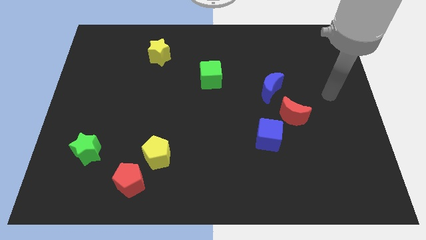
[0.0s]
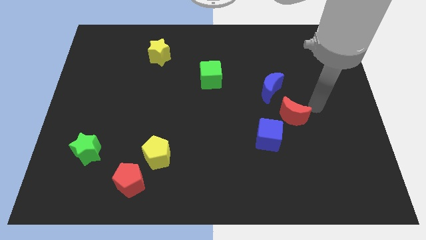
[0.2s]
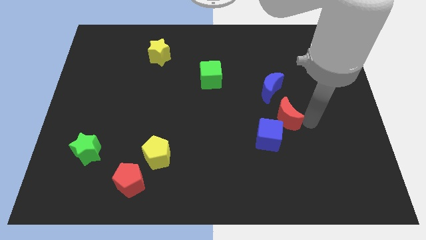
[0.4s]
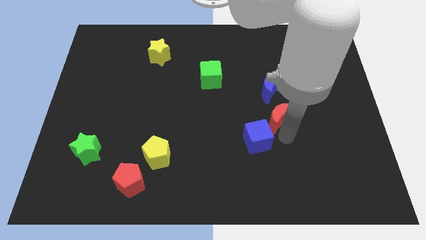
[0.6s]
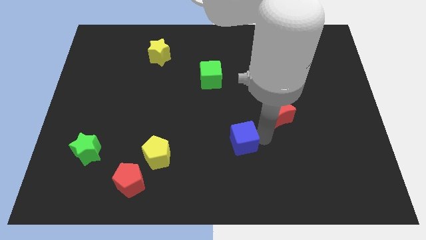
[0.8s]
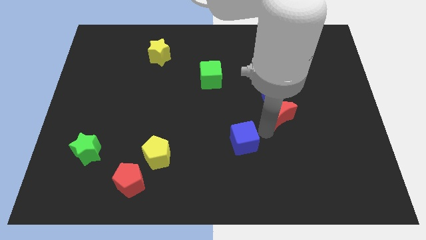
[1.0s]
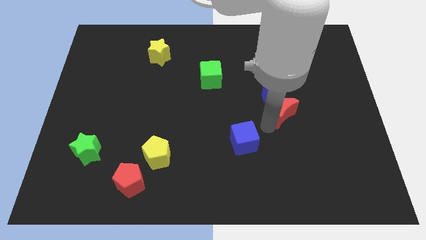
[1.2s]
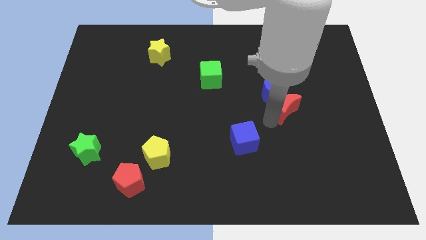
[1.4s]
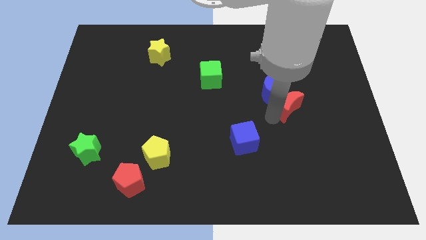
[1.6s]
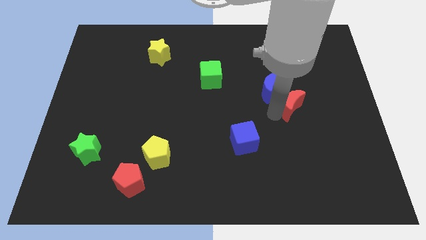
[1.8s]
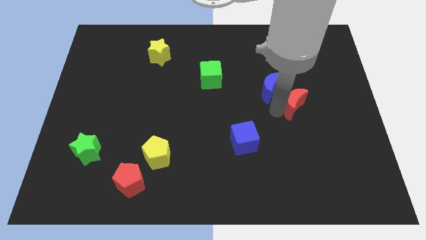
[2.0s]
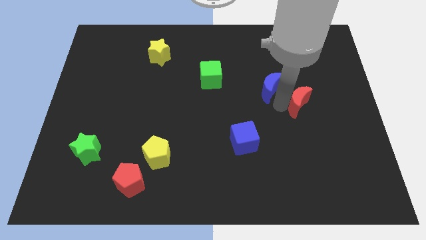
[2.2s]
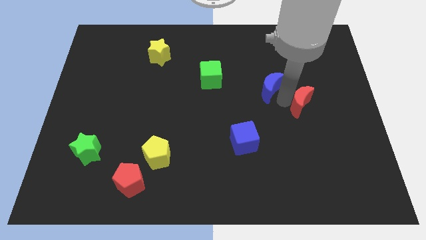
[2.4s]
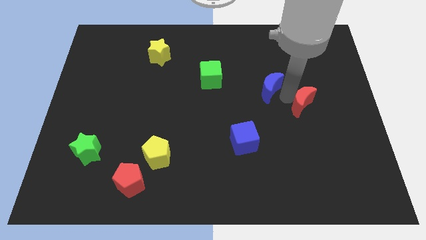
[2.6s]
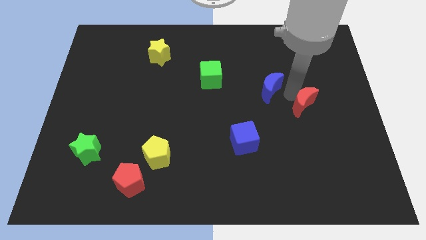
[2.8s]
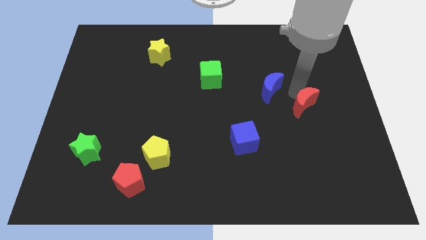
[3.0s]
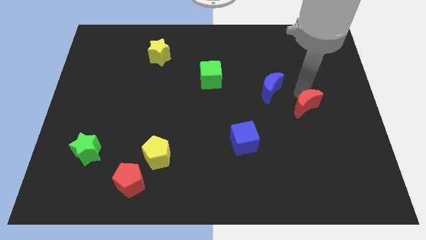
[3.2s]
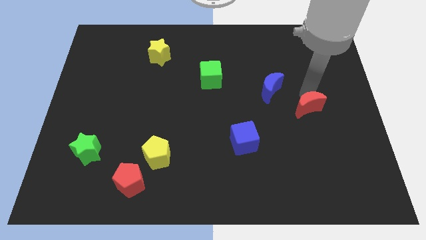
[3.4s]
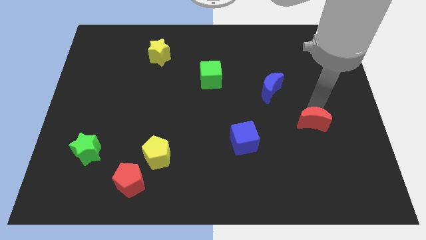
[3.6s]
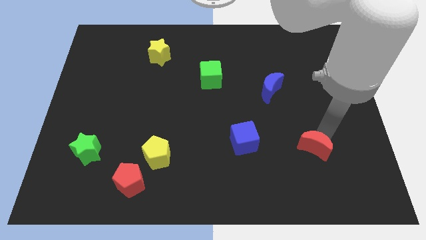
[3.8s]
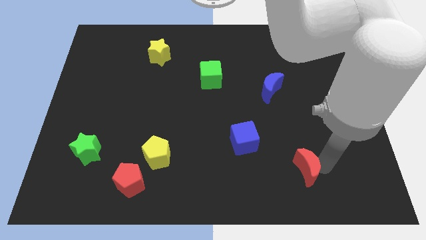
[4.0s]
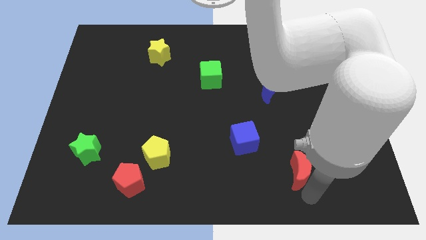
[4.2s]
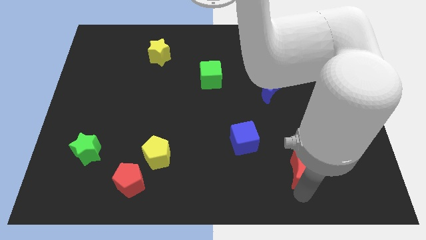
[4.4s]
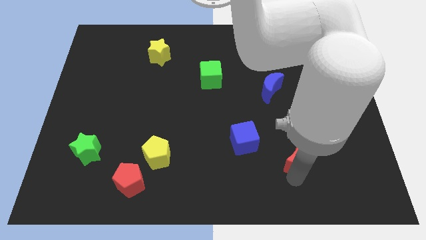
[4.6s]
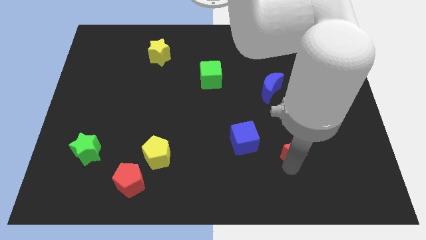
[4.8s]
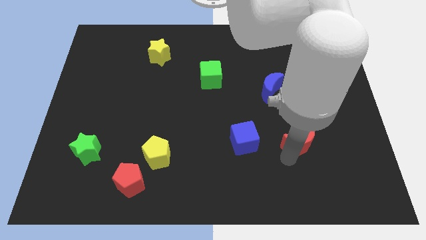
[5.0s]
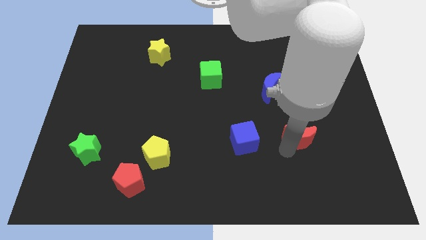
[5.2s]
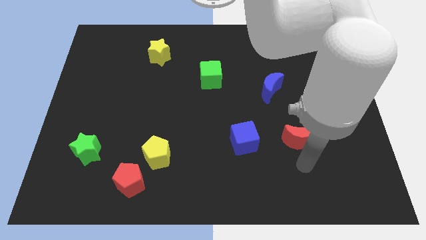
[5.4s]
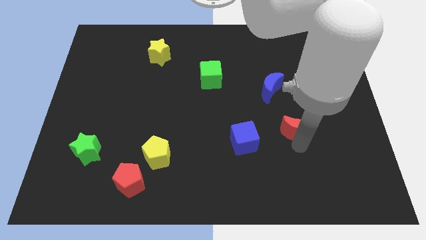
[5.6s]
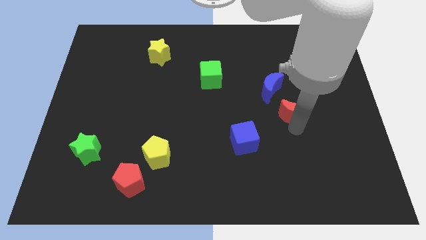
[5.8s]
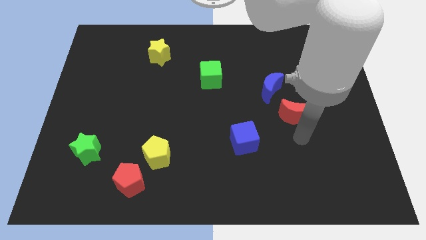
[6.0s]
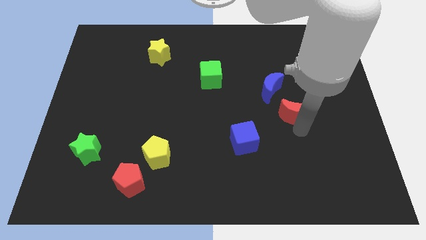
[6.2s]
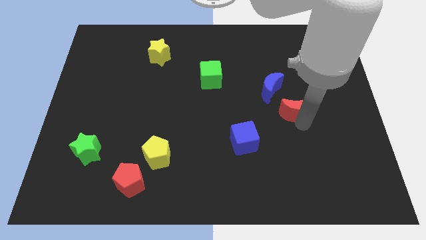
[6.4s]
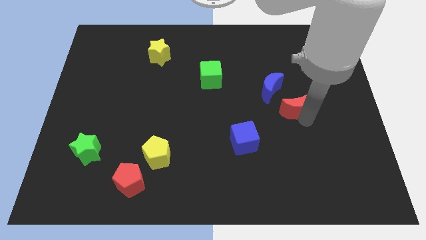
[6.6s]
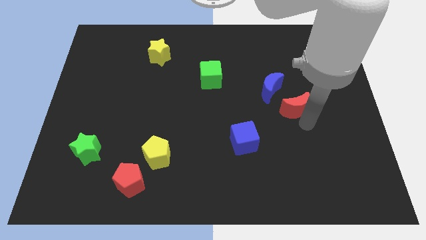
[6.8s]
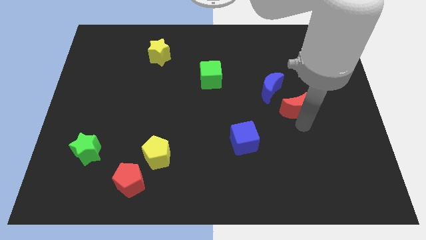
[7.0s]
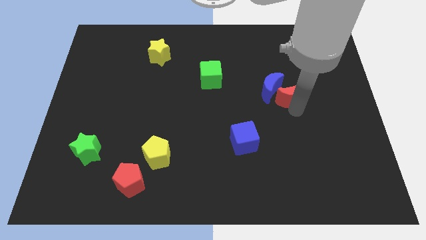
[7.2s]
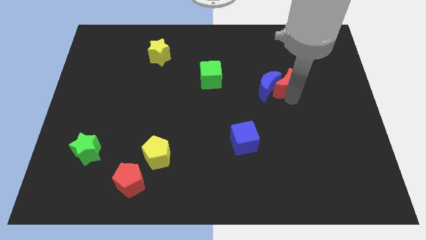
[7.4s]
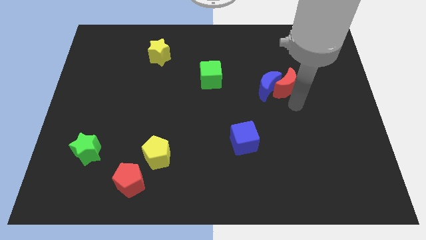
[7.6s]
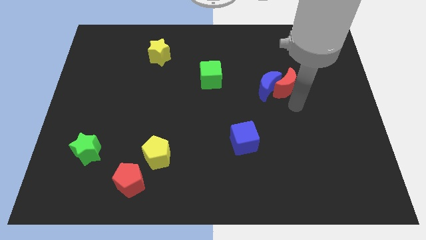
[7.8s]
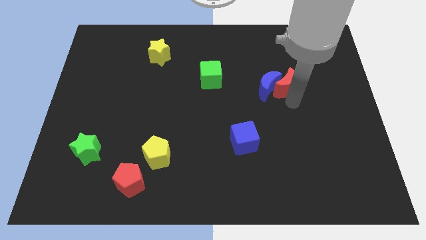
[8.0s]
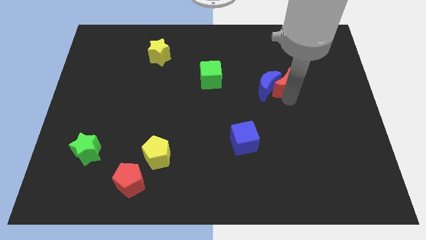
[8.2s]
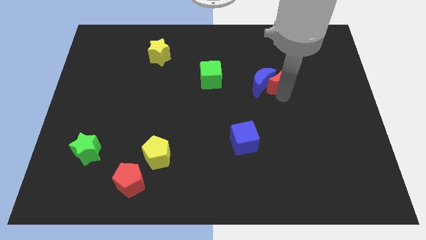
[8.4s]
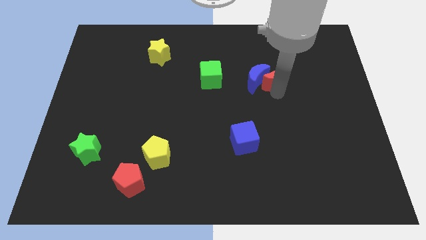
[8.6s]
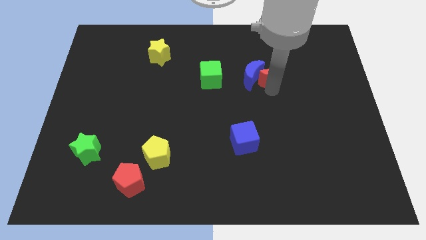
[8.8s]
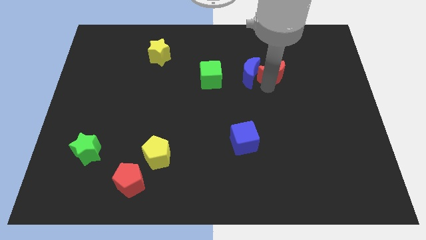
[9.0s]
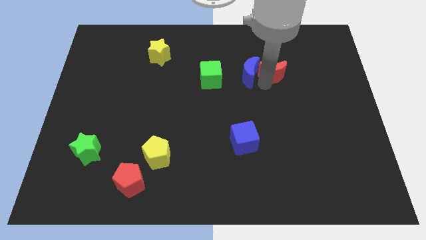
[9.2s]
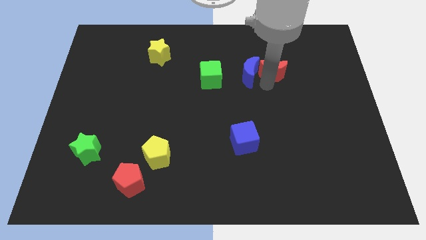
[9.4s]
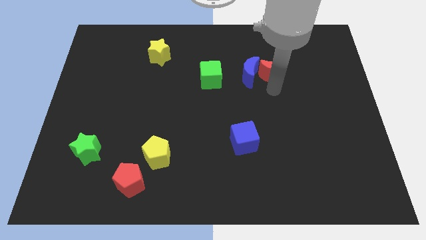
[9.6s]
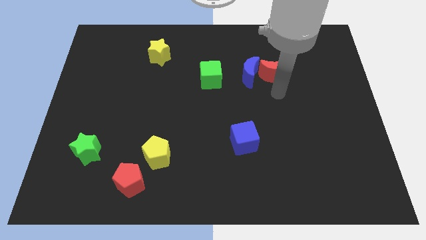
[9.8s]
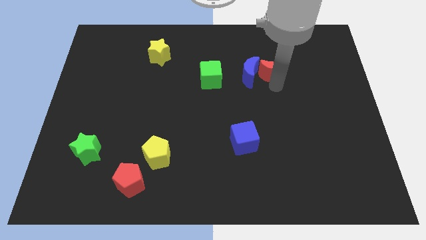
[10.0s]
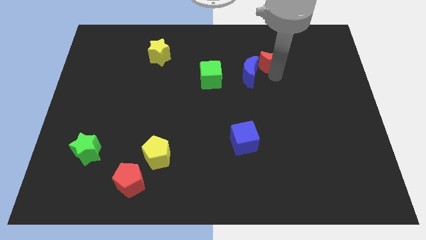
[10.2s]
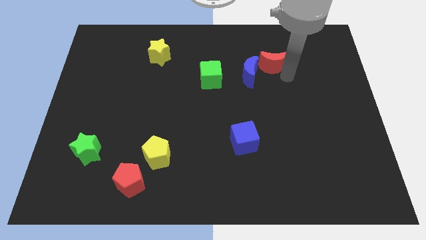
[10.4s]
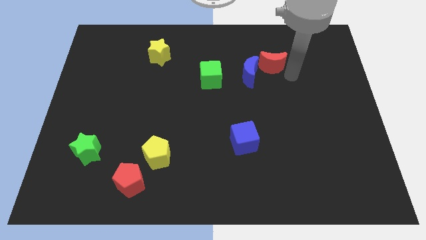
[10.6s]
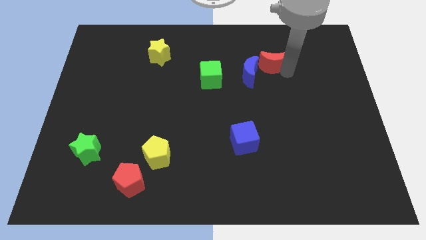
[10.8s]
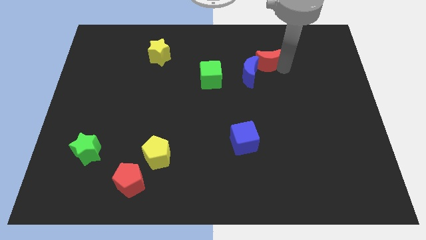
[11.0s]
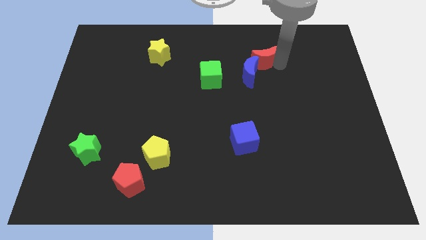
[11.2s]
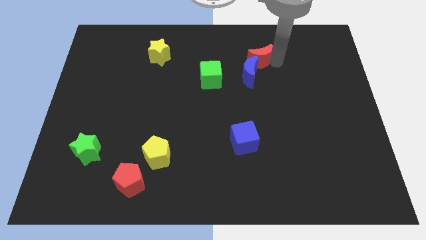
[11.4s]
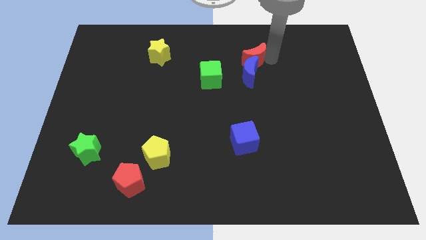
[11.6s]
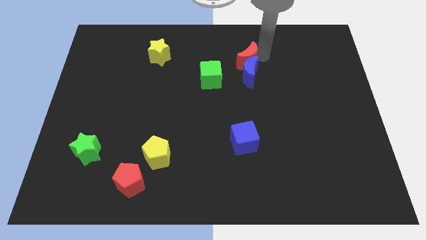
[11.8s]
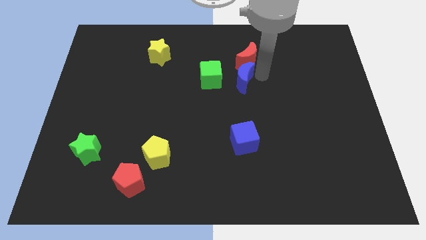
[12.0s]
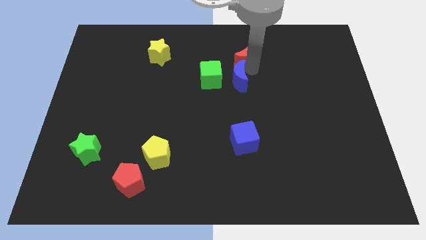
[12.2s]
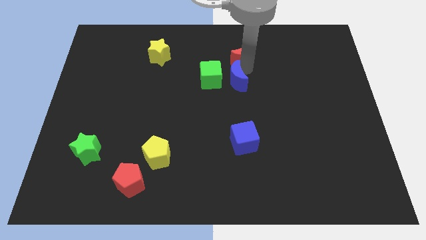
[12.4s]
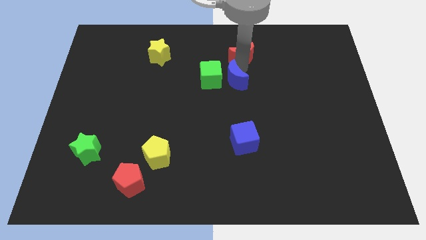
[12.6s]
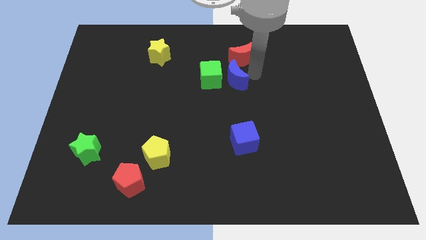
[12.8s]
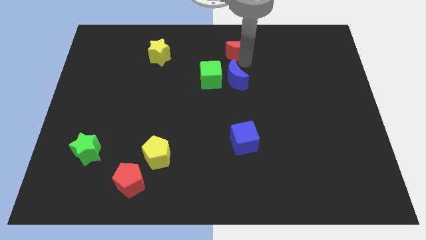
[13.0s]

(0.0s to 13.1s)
slide the red moon to the towards your base

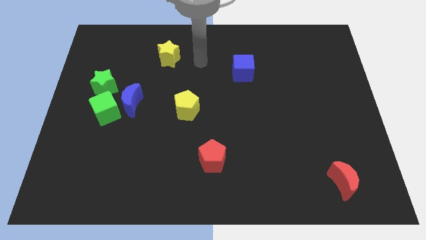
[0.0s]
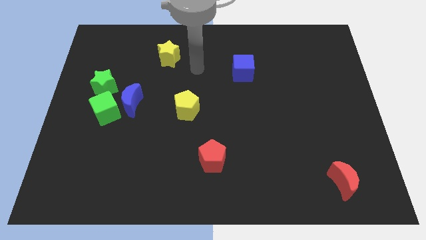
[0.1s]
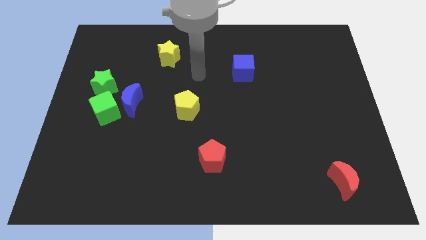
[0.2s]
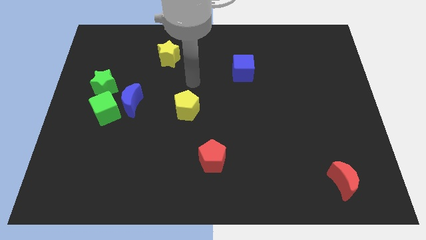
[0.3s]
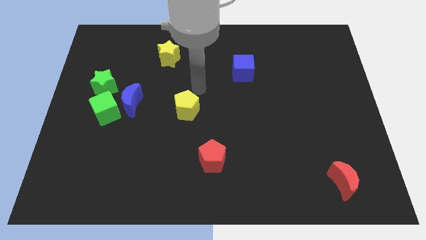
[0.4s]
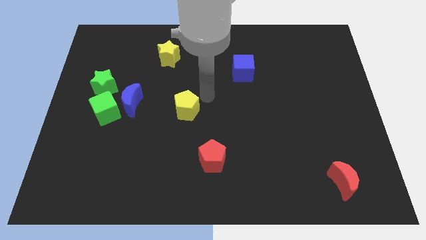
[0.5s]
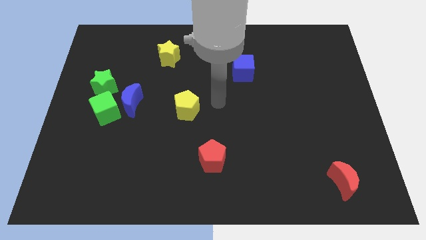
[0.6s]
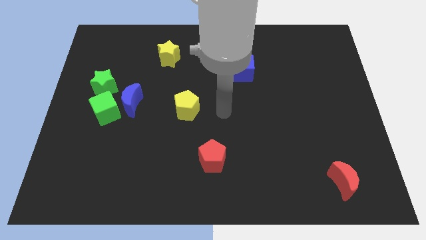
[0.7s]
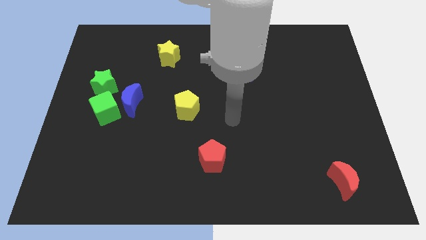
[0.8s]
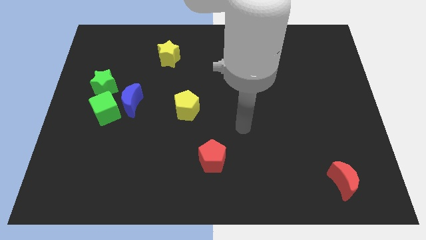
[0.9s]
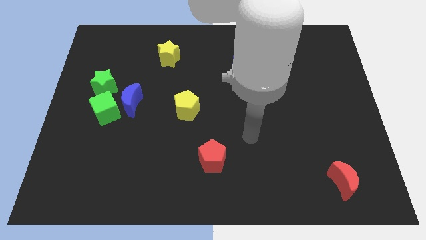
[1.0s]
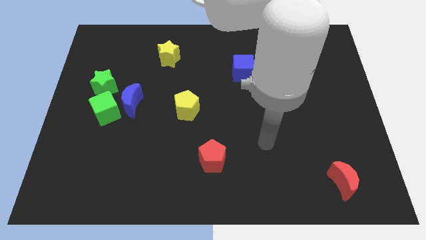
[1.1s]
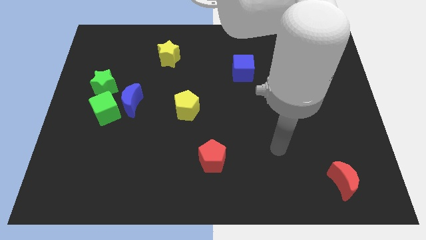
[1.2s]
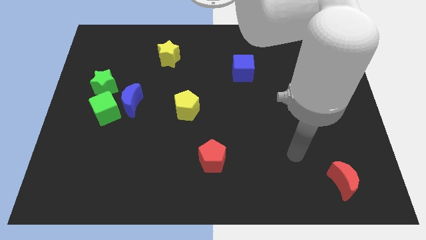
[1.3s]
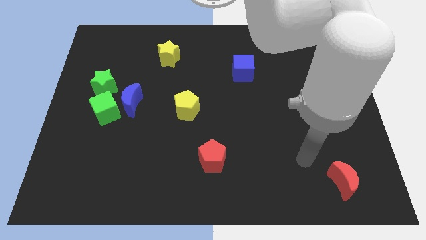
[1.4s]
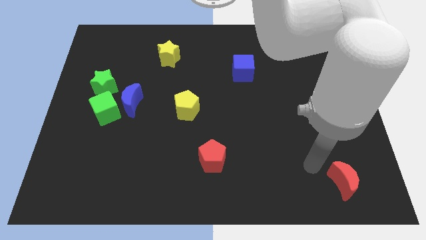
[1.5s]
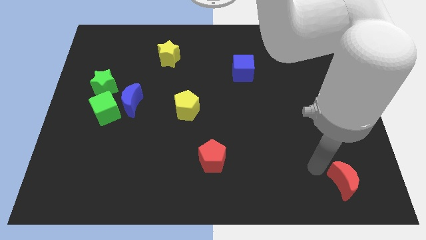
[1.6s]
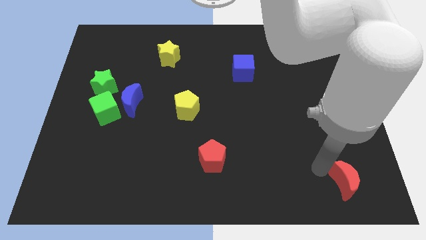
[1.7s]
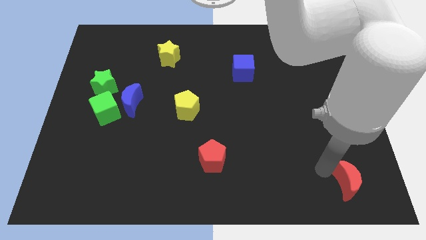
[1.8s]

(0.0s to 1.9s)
push the red moon to the bottom right corner
